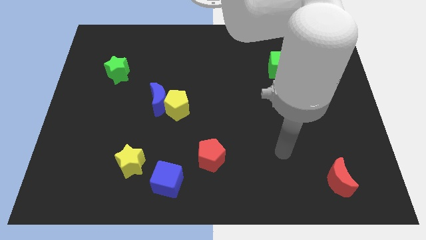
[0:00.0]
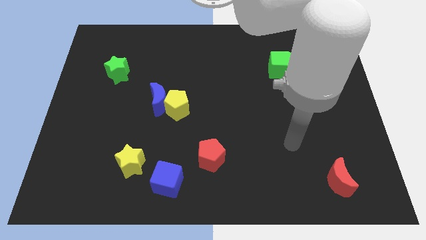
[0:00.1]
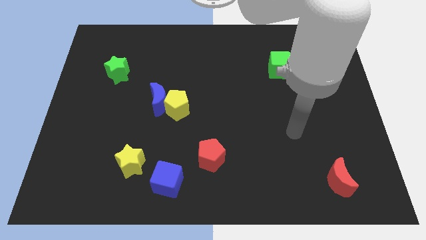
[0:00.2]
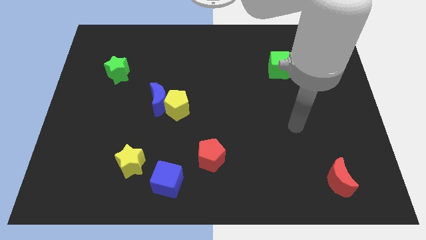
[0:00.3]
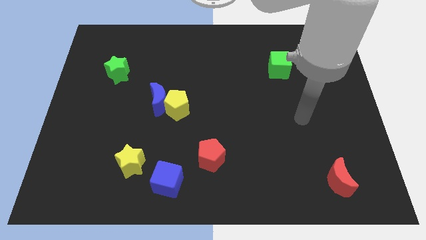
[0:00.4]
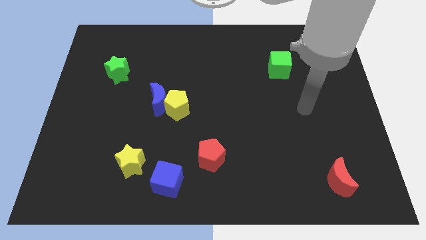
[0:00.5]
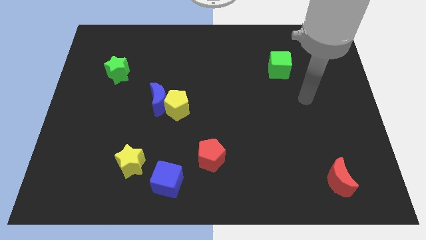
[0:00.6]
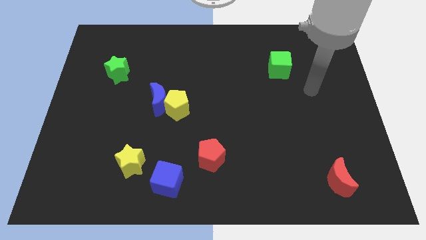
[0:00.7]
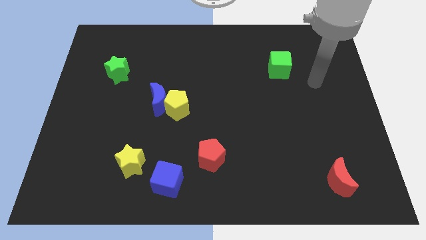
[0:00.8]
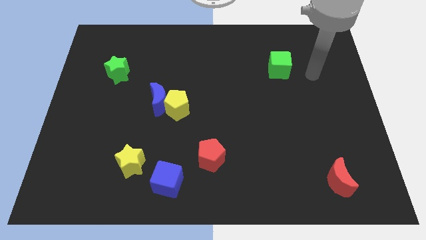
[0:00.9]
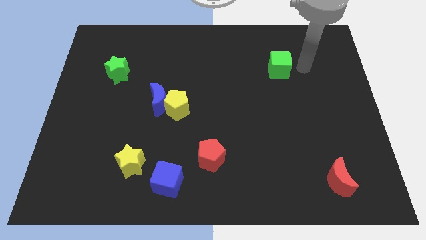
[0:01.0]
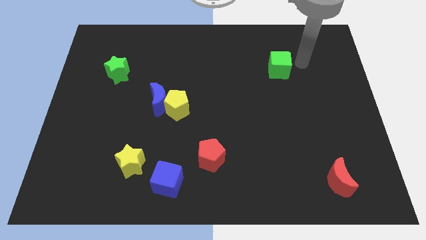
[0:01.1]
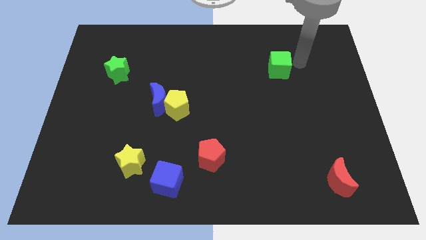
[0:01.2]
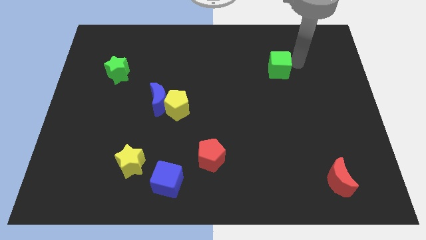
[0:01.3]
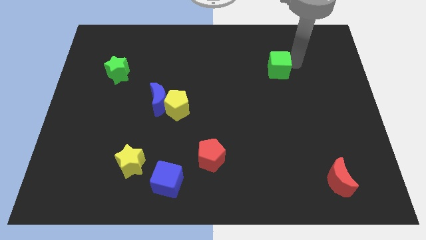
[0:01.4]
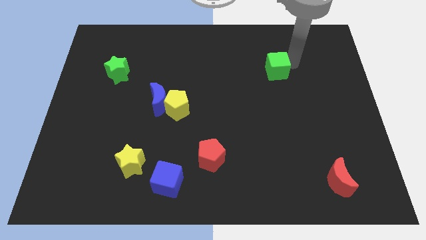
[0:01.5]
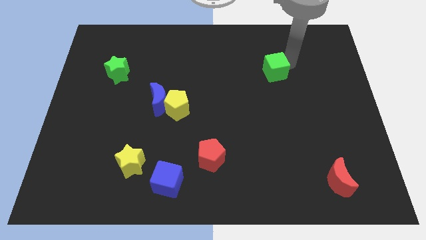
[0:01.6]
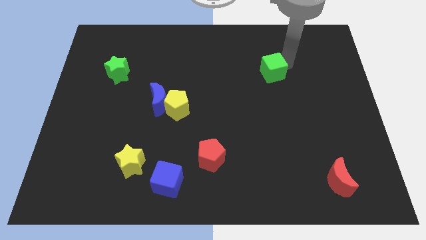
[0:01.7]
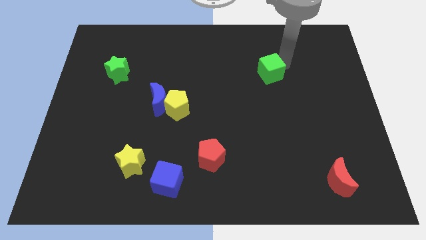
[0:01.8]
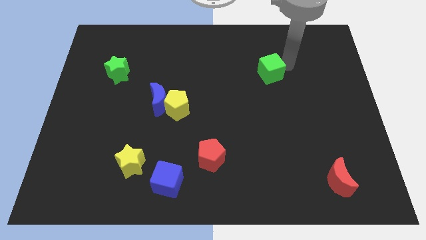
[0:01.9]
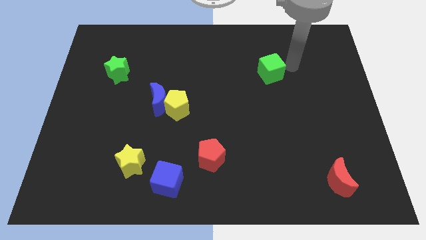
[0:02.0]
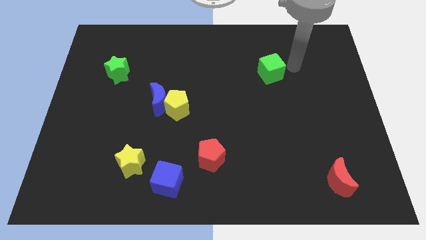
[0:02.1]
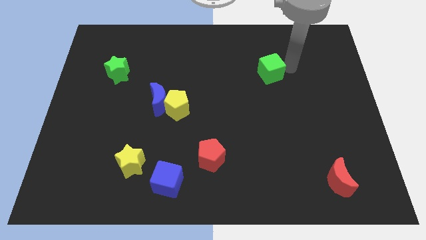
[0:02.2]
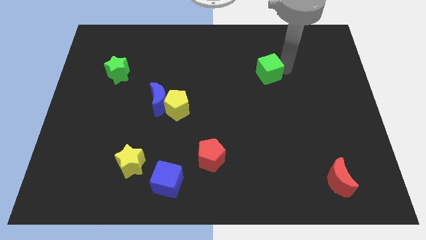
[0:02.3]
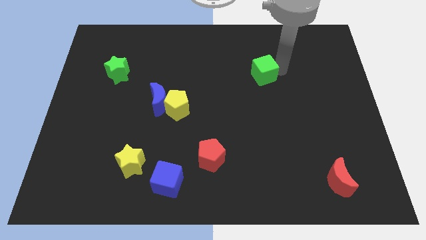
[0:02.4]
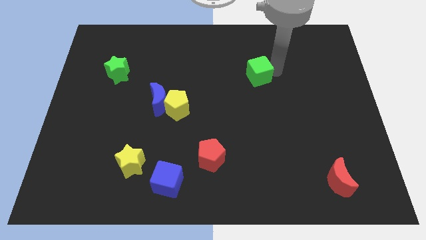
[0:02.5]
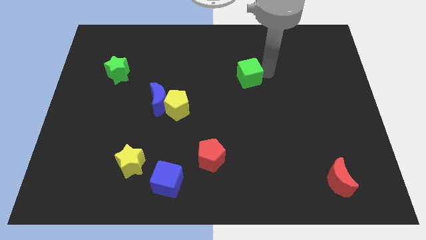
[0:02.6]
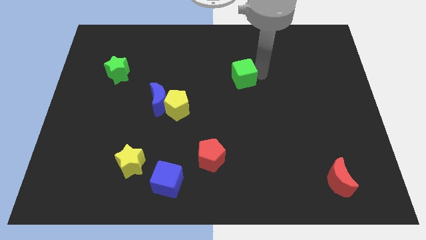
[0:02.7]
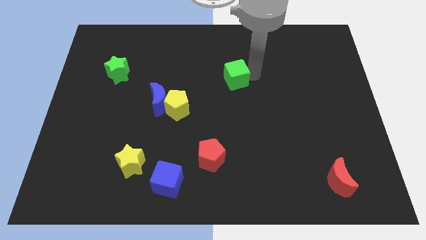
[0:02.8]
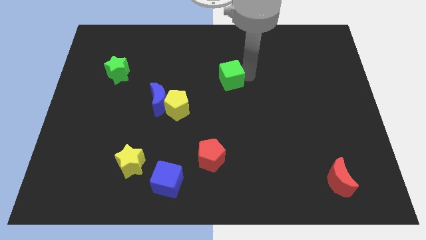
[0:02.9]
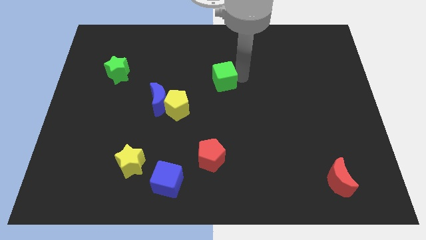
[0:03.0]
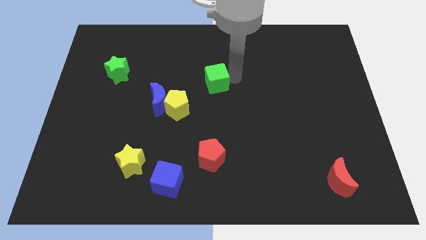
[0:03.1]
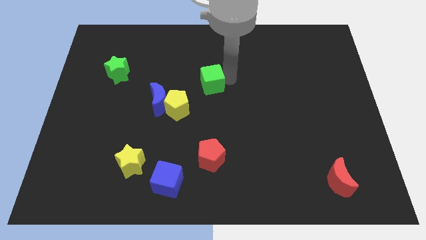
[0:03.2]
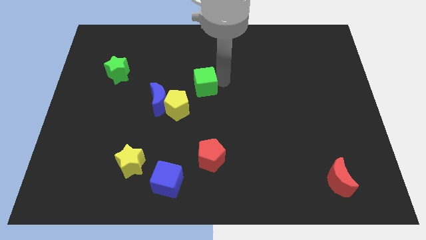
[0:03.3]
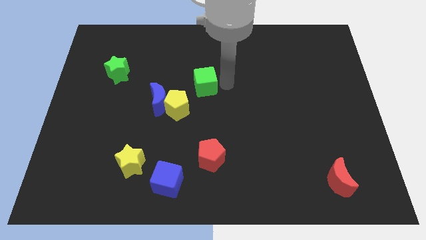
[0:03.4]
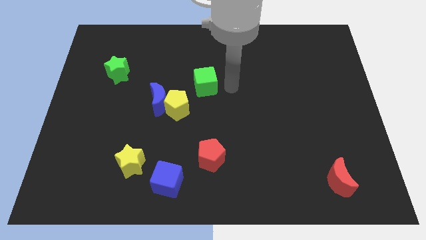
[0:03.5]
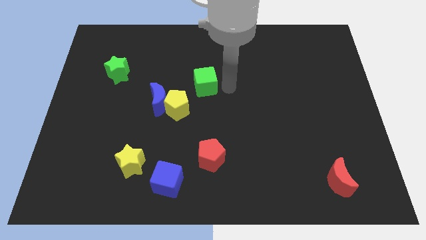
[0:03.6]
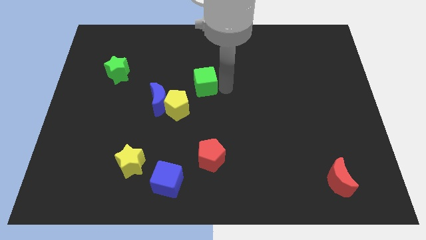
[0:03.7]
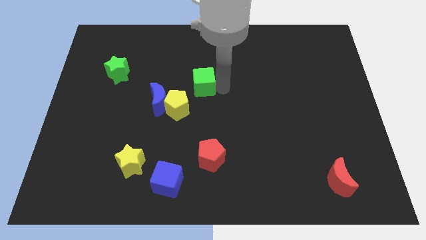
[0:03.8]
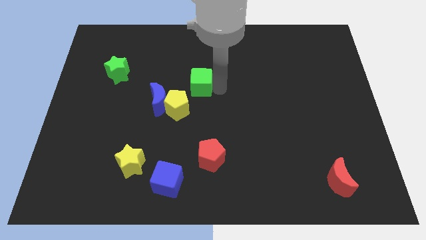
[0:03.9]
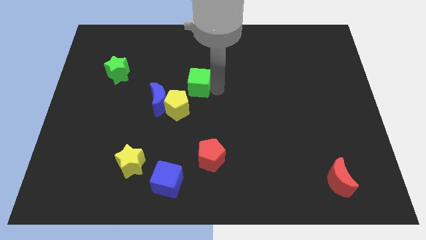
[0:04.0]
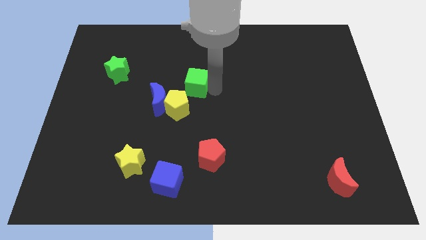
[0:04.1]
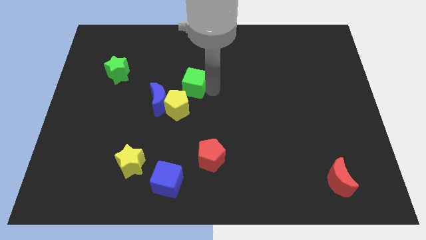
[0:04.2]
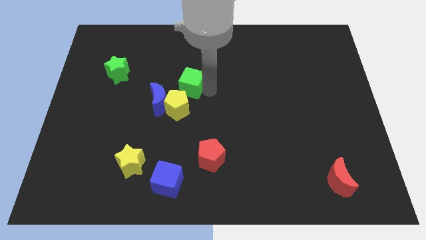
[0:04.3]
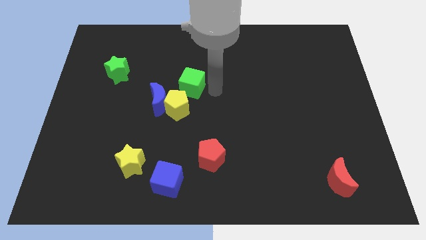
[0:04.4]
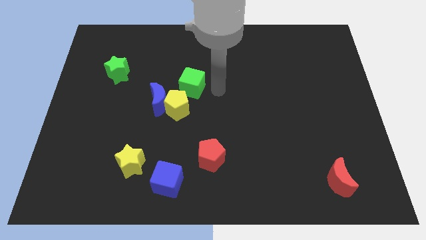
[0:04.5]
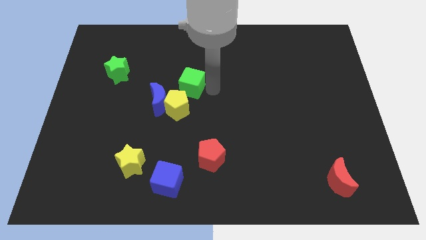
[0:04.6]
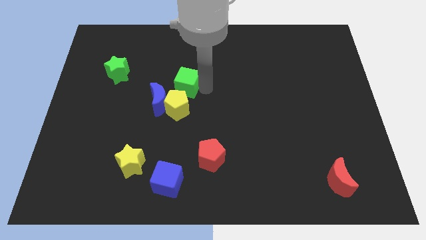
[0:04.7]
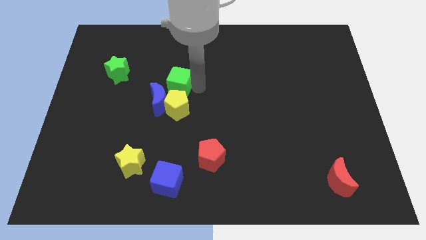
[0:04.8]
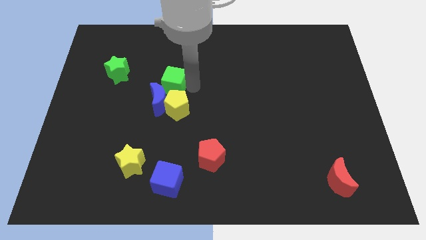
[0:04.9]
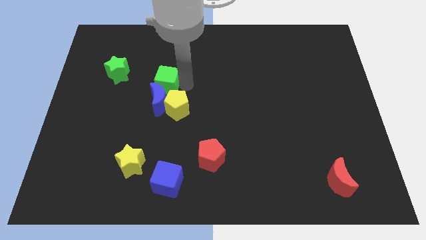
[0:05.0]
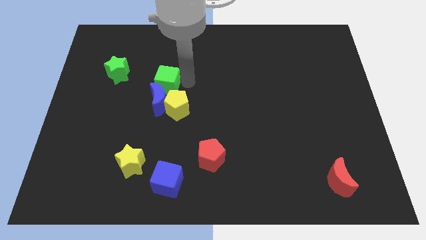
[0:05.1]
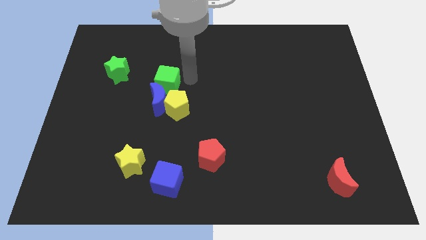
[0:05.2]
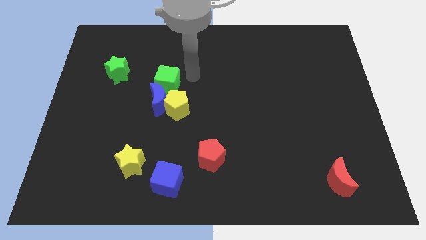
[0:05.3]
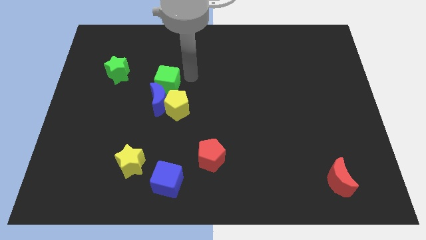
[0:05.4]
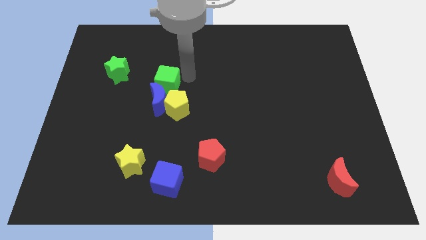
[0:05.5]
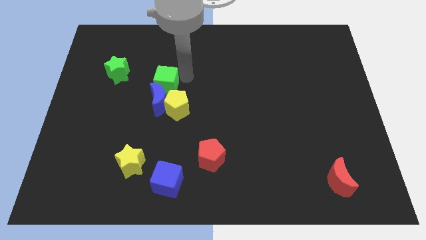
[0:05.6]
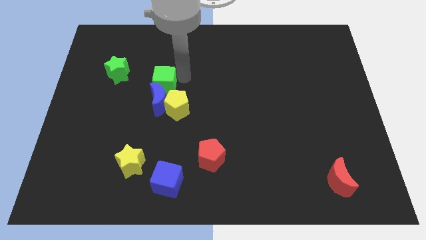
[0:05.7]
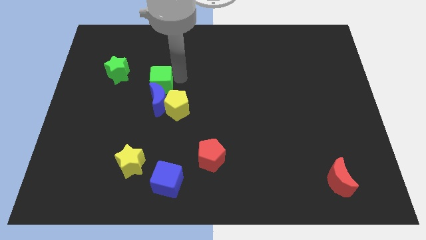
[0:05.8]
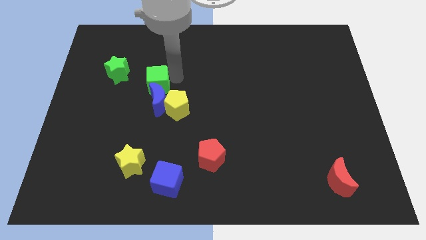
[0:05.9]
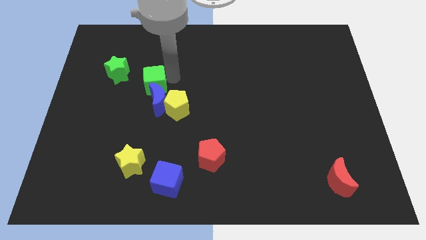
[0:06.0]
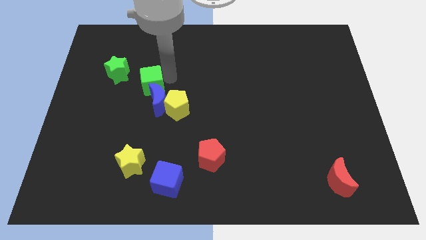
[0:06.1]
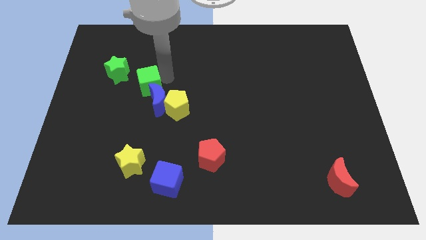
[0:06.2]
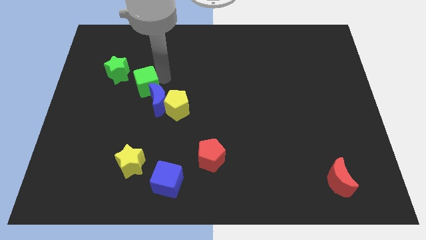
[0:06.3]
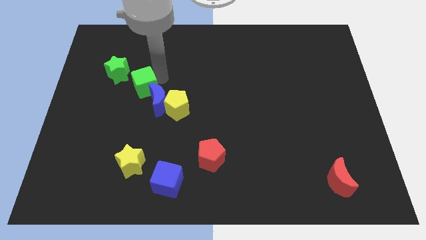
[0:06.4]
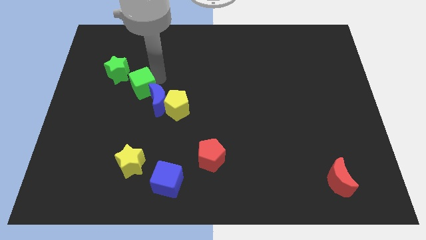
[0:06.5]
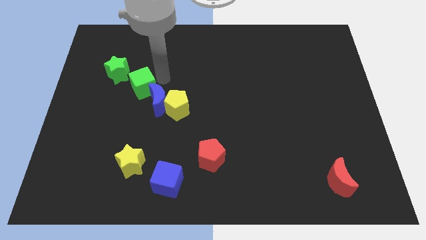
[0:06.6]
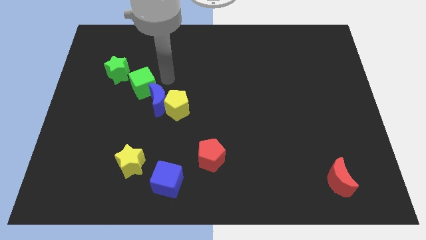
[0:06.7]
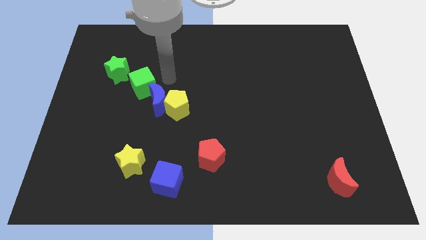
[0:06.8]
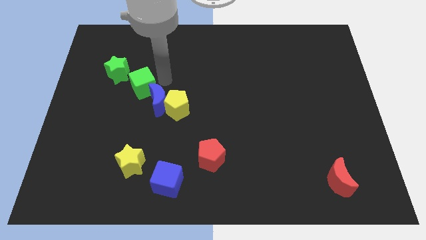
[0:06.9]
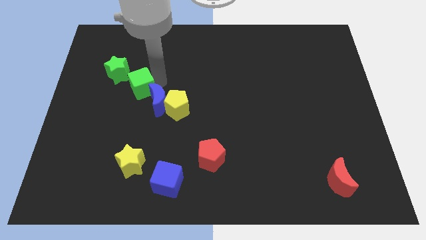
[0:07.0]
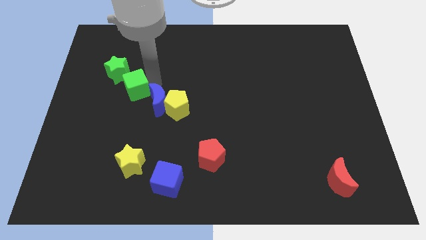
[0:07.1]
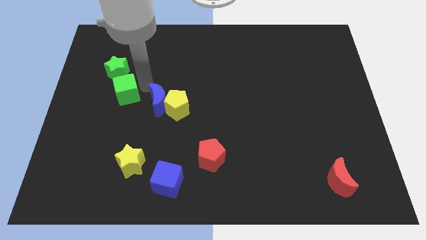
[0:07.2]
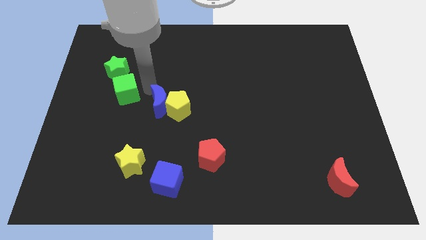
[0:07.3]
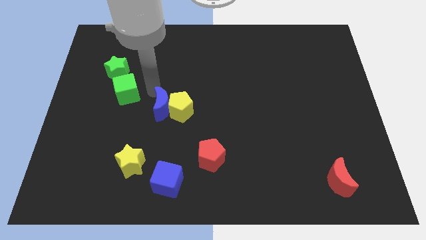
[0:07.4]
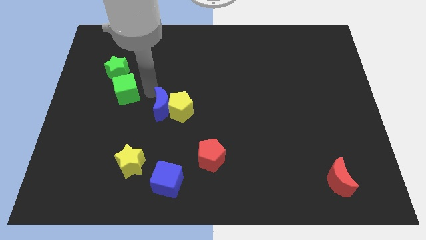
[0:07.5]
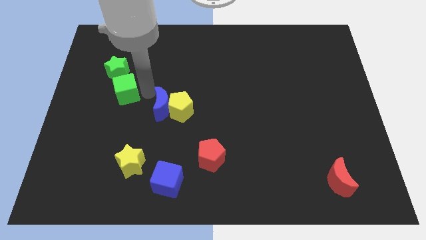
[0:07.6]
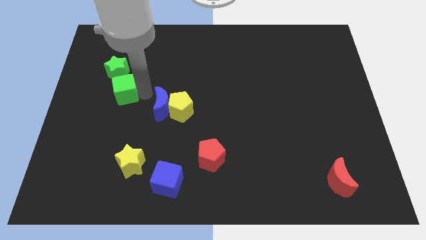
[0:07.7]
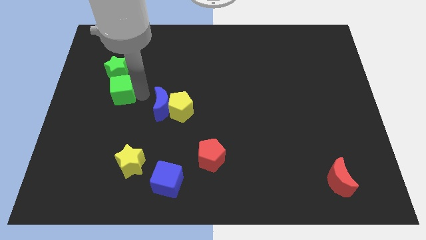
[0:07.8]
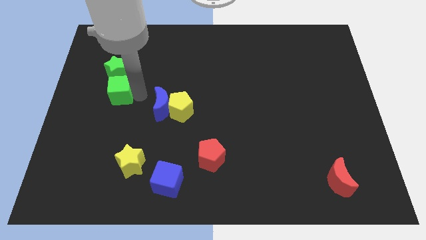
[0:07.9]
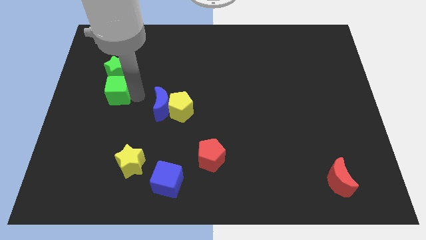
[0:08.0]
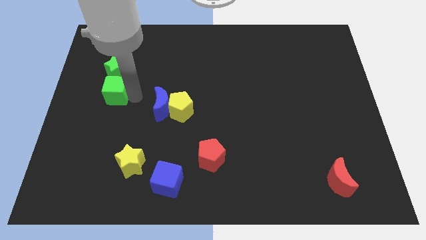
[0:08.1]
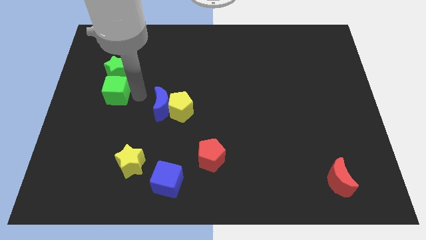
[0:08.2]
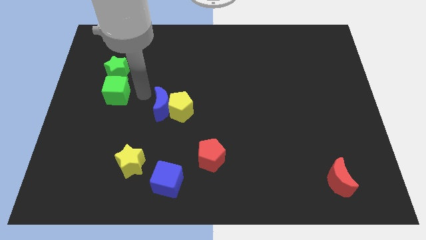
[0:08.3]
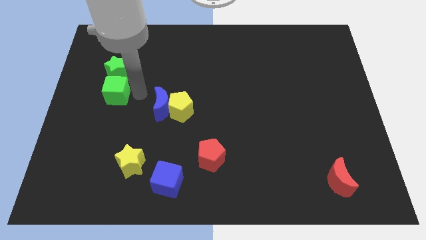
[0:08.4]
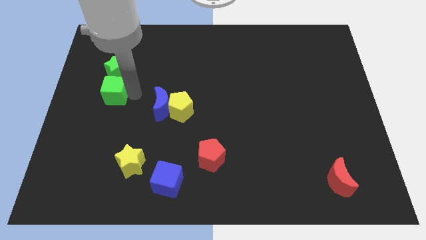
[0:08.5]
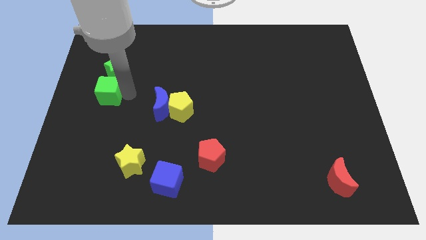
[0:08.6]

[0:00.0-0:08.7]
slide the green cube to the left side
